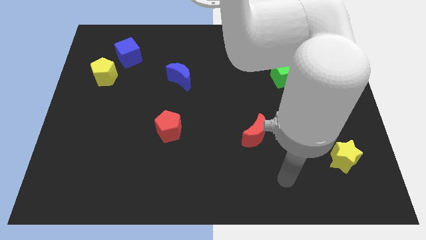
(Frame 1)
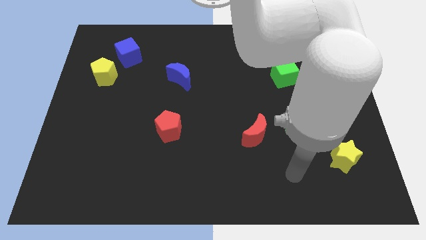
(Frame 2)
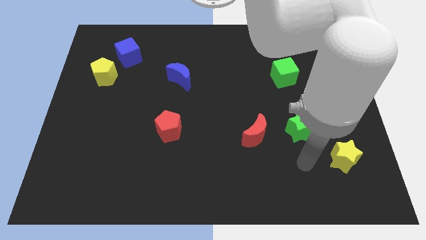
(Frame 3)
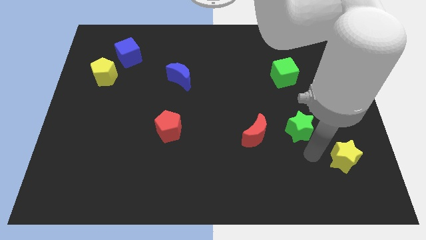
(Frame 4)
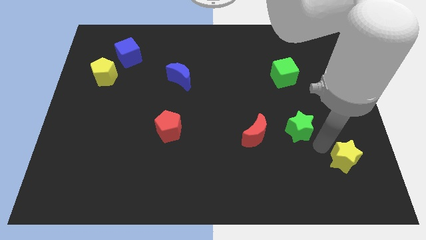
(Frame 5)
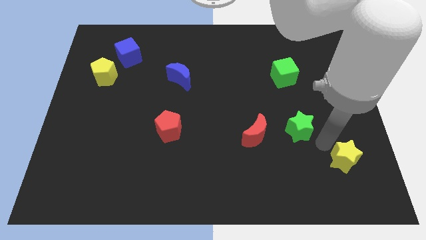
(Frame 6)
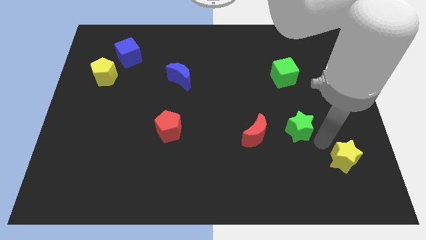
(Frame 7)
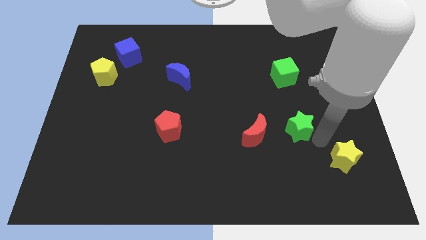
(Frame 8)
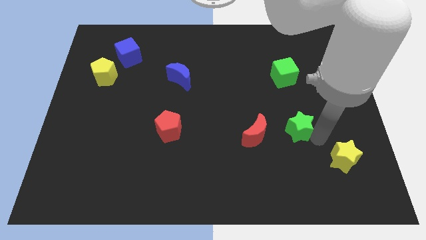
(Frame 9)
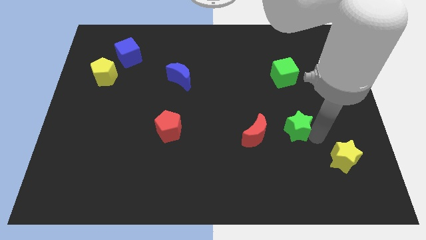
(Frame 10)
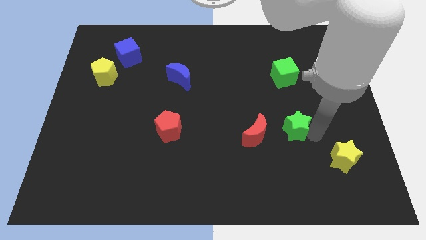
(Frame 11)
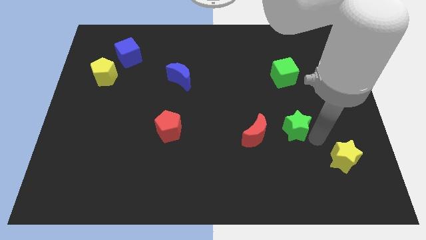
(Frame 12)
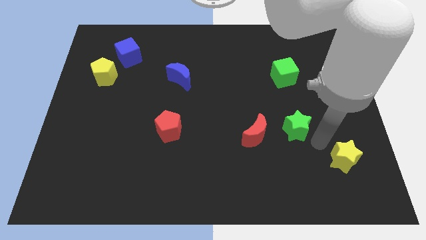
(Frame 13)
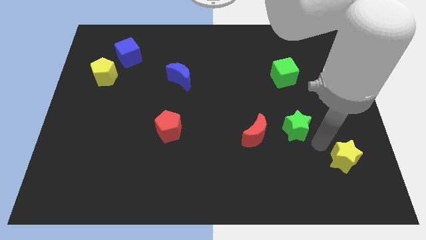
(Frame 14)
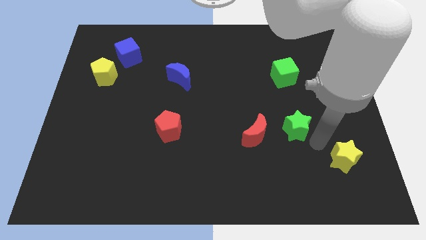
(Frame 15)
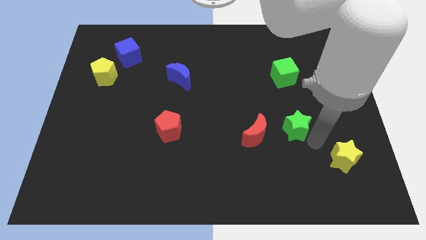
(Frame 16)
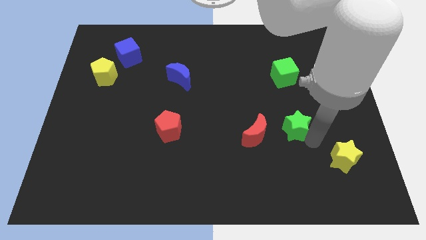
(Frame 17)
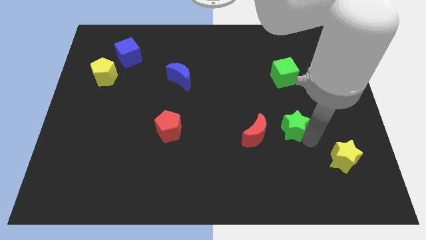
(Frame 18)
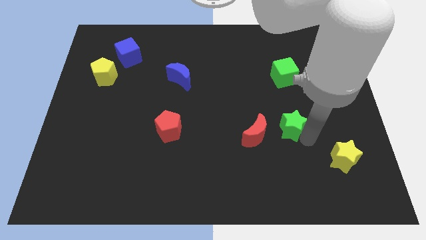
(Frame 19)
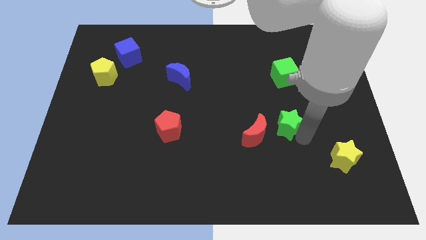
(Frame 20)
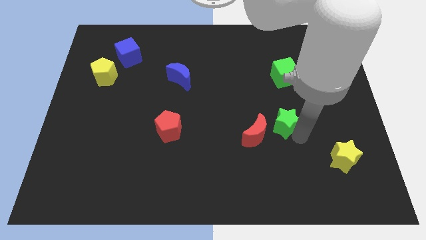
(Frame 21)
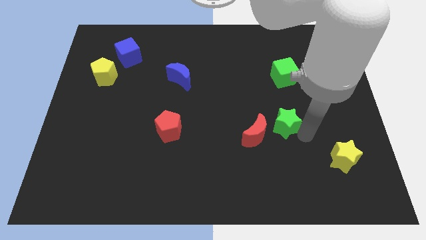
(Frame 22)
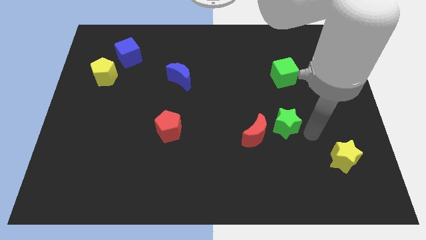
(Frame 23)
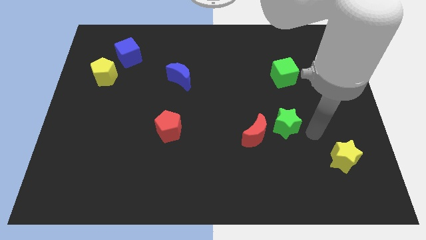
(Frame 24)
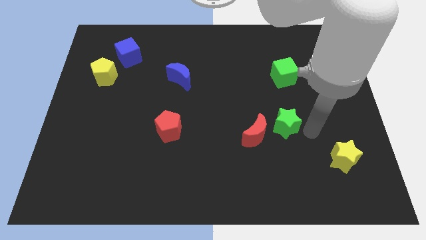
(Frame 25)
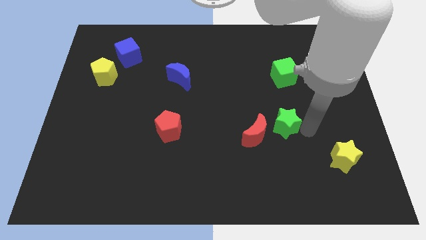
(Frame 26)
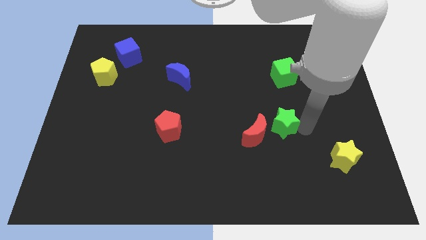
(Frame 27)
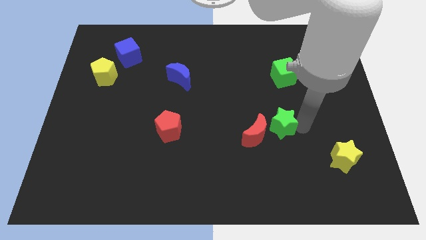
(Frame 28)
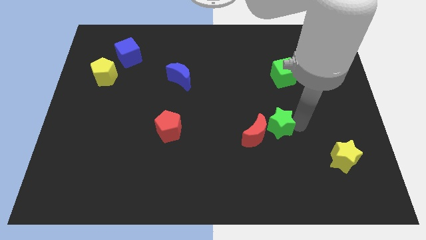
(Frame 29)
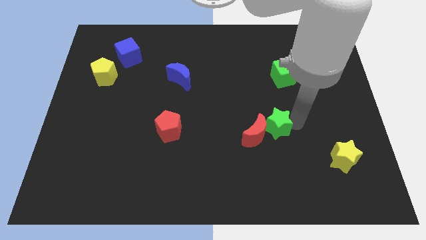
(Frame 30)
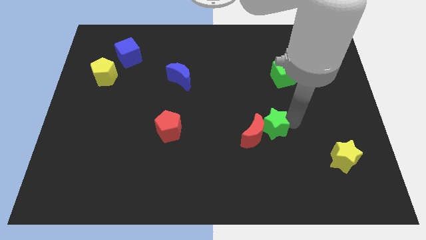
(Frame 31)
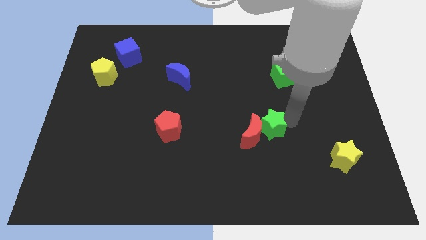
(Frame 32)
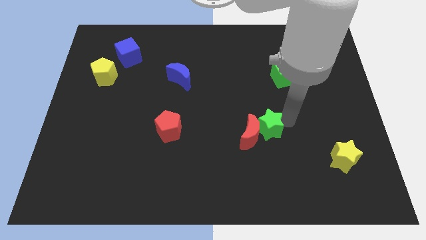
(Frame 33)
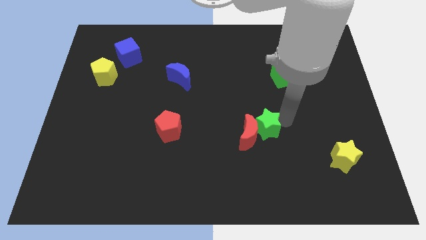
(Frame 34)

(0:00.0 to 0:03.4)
slightly slide the green star left

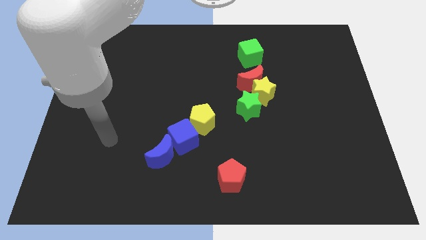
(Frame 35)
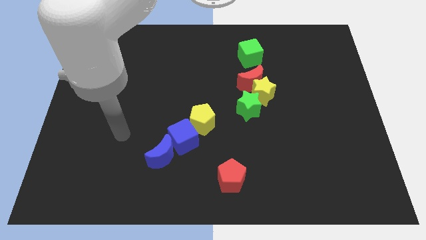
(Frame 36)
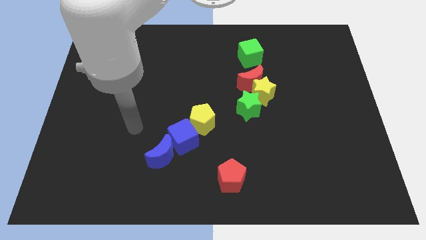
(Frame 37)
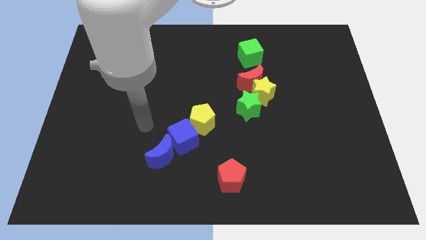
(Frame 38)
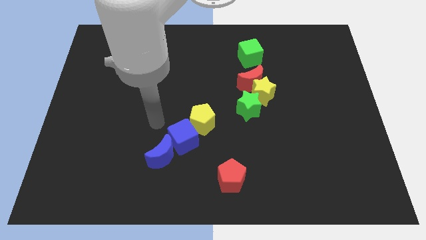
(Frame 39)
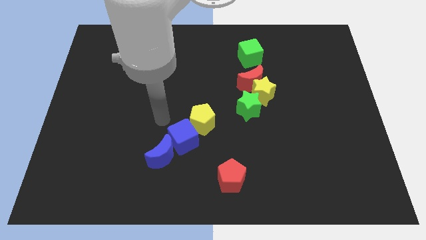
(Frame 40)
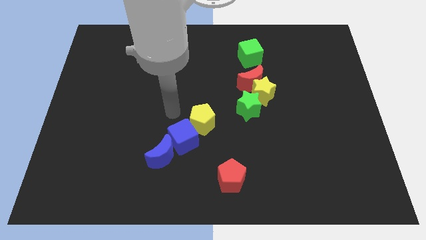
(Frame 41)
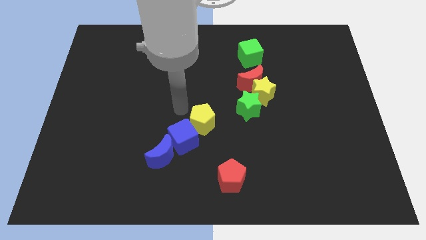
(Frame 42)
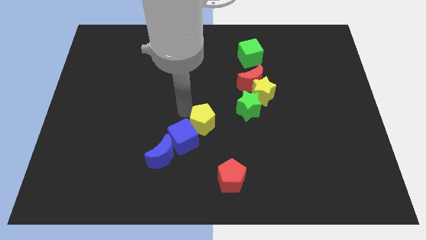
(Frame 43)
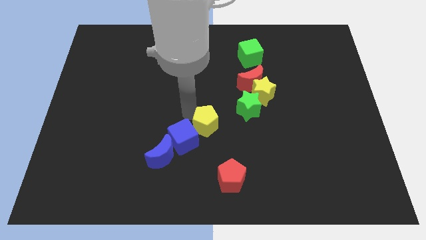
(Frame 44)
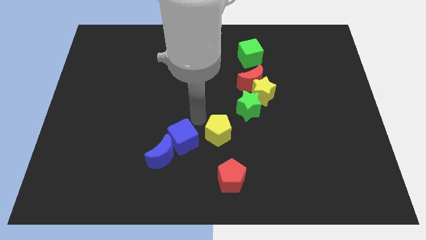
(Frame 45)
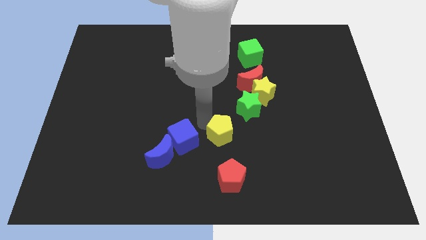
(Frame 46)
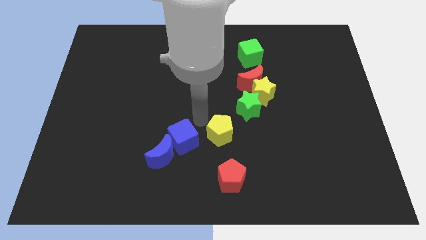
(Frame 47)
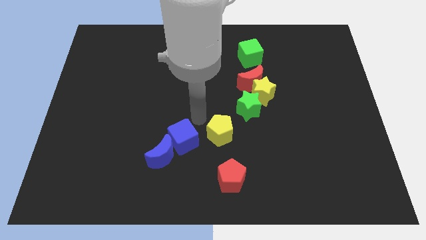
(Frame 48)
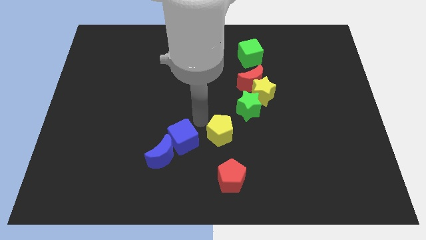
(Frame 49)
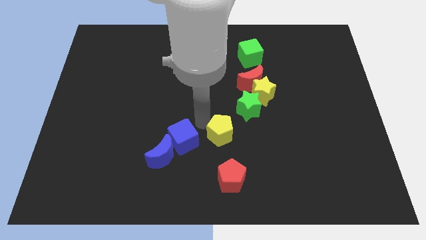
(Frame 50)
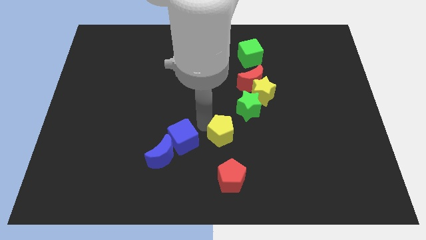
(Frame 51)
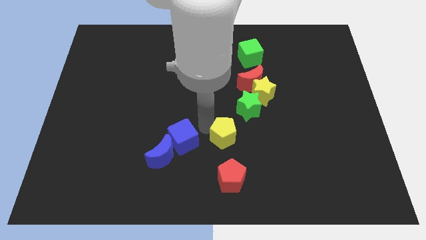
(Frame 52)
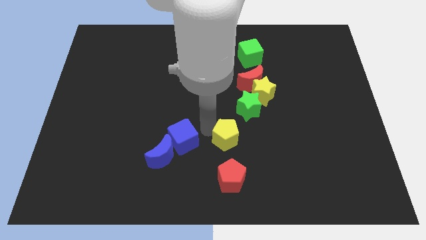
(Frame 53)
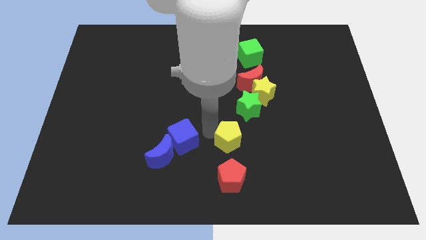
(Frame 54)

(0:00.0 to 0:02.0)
slide the yellow pentagon down and right a bit

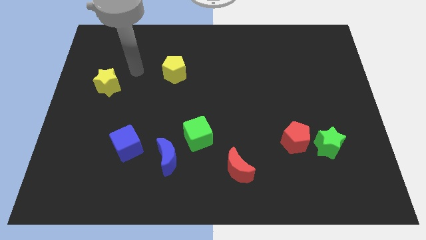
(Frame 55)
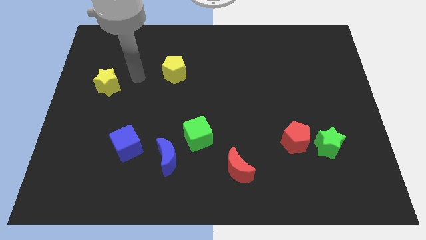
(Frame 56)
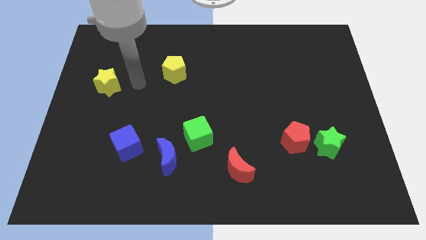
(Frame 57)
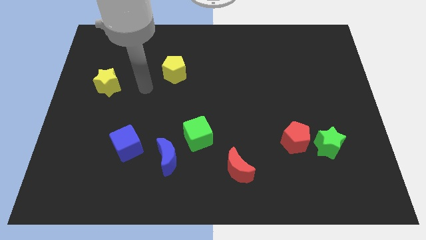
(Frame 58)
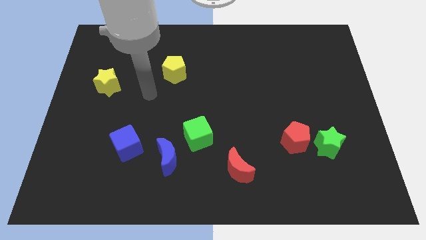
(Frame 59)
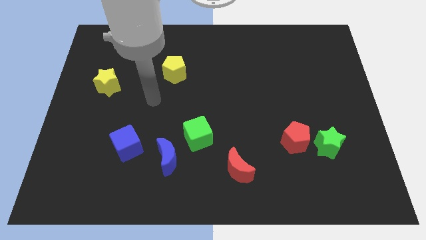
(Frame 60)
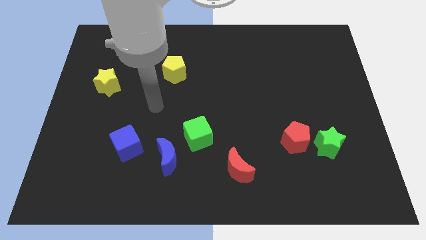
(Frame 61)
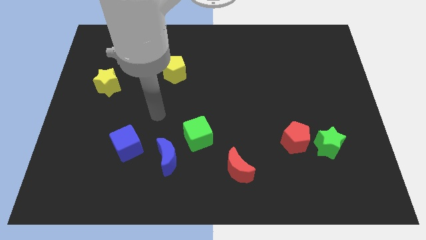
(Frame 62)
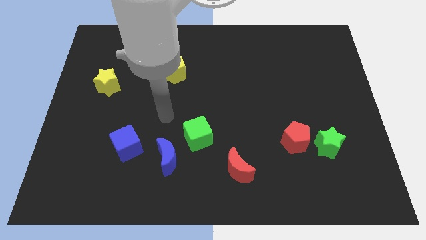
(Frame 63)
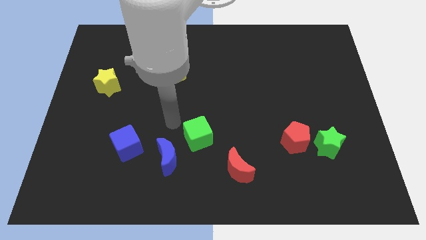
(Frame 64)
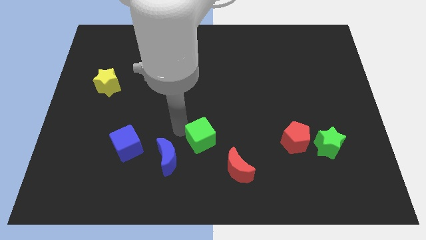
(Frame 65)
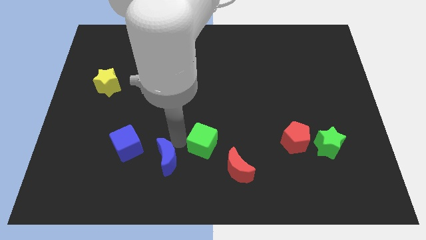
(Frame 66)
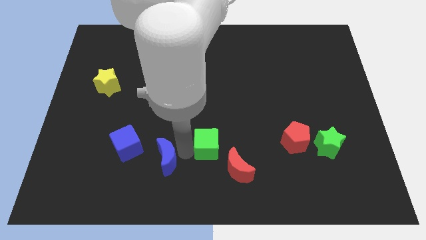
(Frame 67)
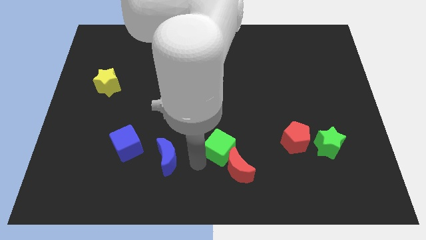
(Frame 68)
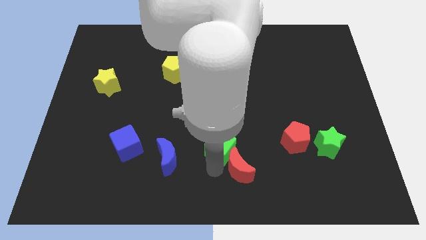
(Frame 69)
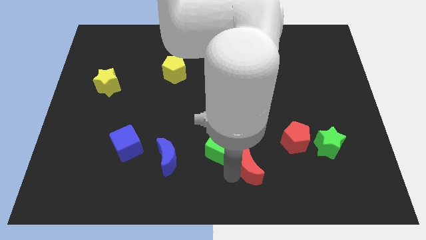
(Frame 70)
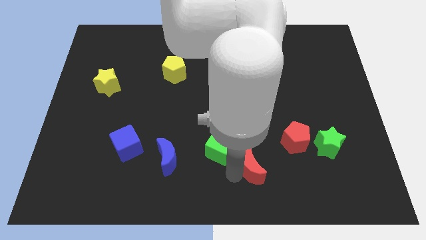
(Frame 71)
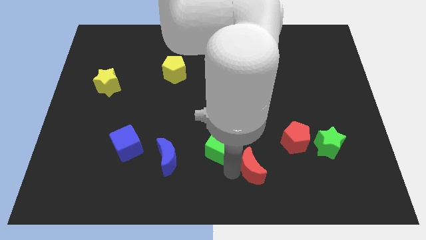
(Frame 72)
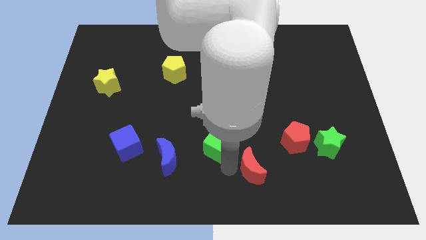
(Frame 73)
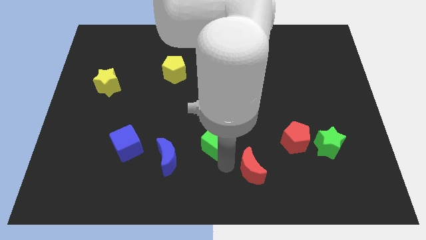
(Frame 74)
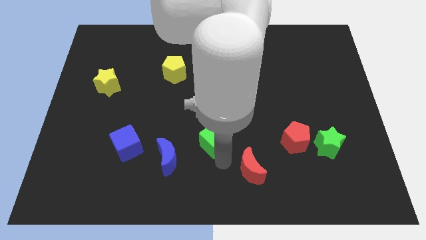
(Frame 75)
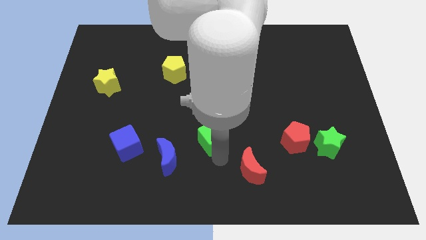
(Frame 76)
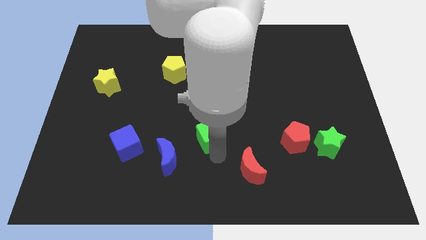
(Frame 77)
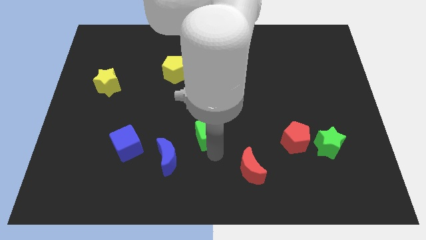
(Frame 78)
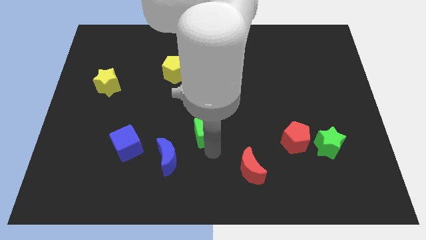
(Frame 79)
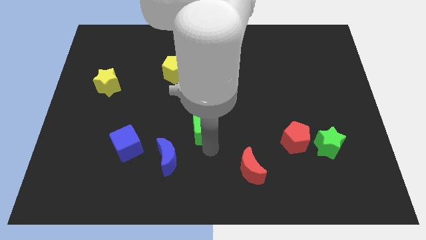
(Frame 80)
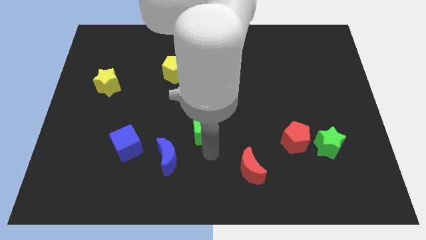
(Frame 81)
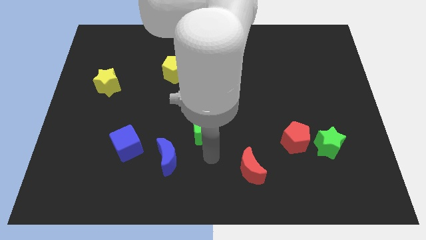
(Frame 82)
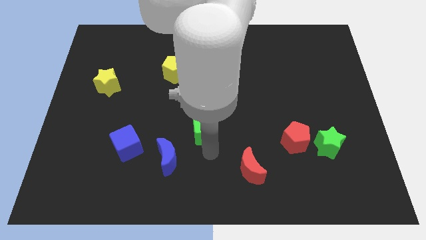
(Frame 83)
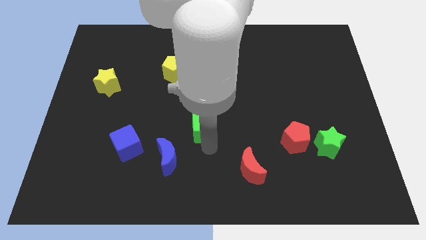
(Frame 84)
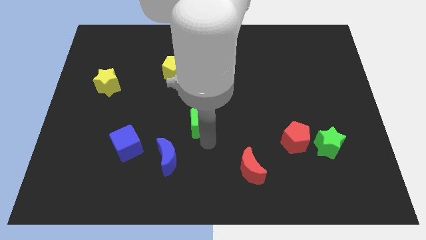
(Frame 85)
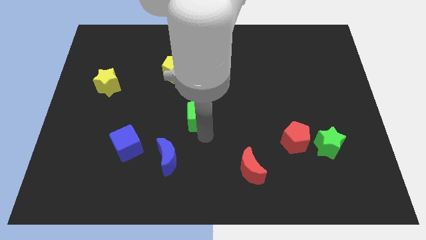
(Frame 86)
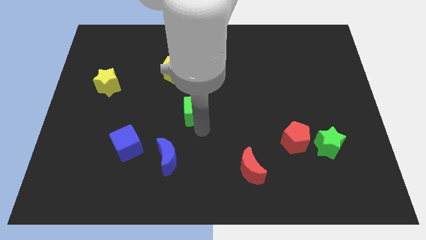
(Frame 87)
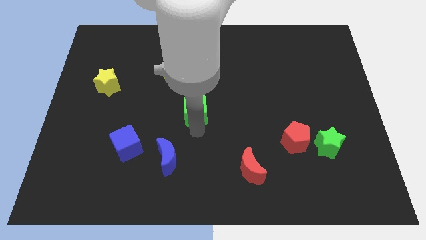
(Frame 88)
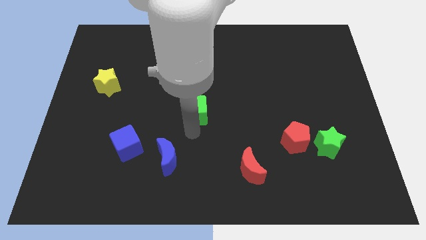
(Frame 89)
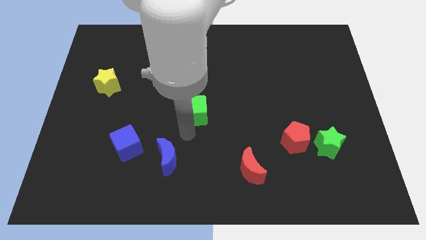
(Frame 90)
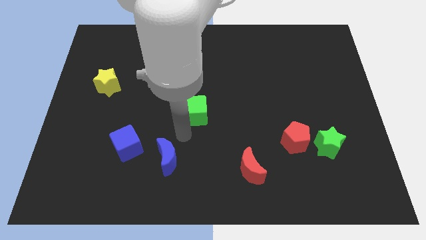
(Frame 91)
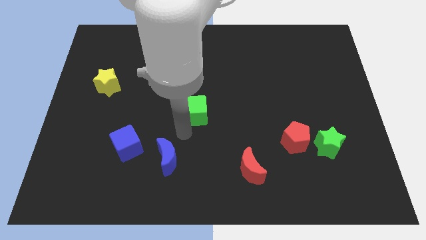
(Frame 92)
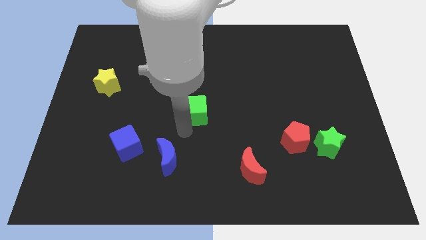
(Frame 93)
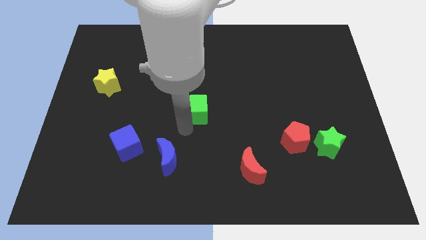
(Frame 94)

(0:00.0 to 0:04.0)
slide the green cube a little up
